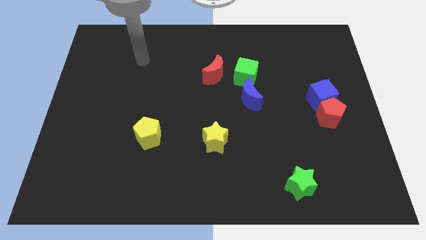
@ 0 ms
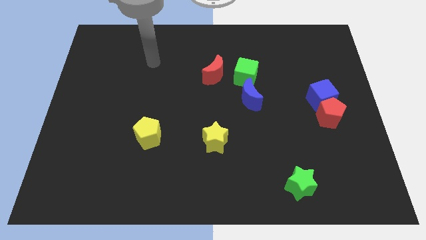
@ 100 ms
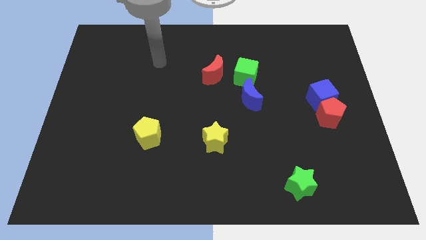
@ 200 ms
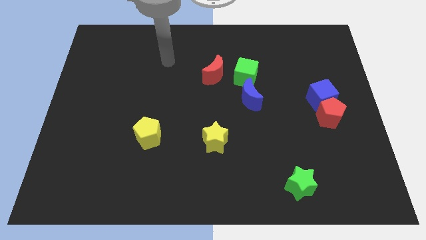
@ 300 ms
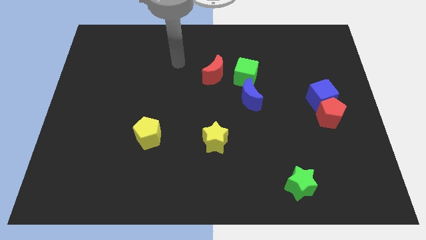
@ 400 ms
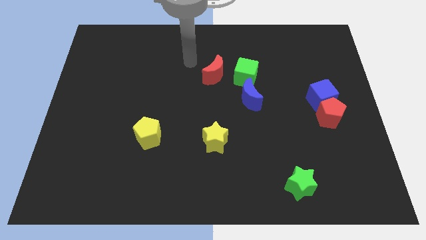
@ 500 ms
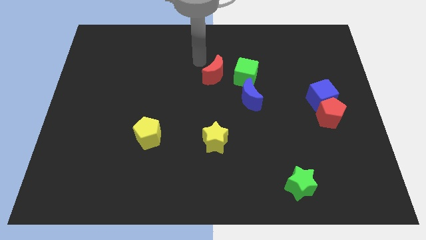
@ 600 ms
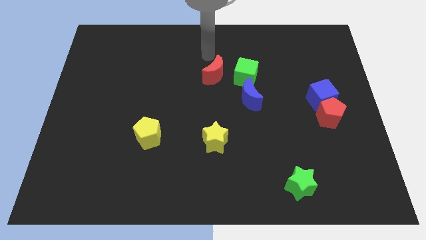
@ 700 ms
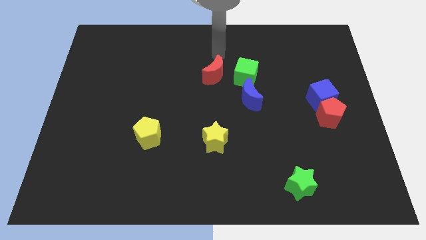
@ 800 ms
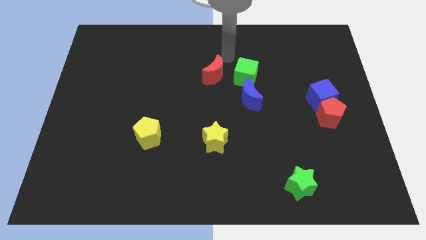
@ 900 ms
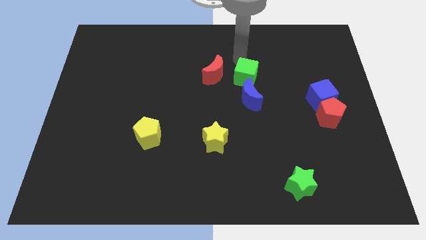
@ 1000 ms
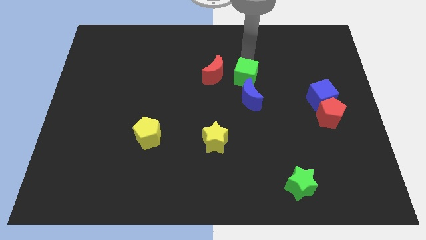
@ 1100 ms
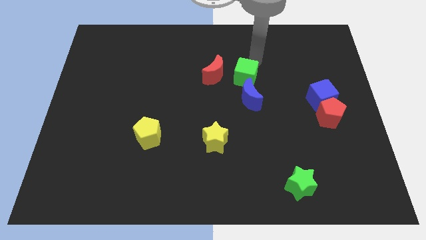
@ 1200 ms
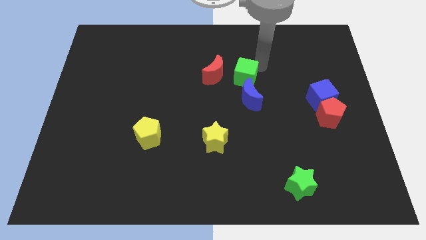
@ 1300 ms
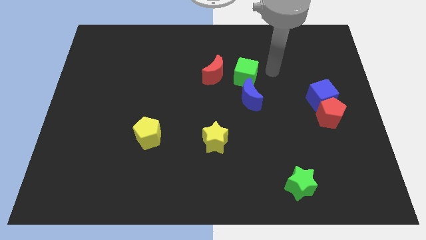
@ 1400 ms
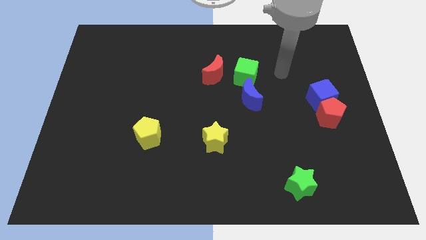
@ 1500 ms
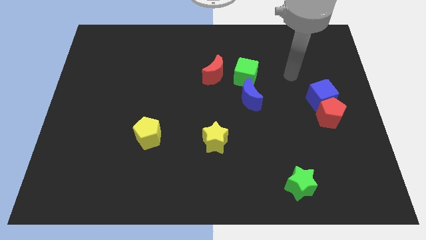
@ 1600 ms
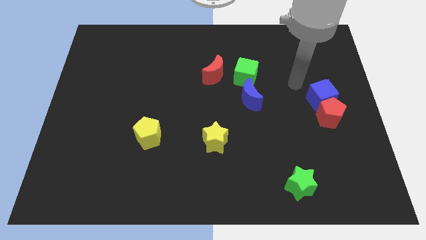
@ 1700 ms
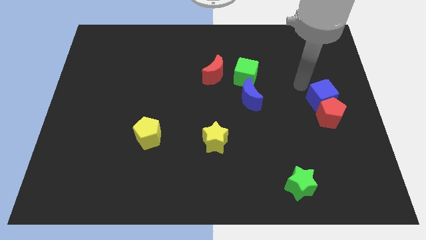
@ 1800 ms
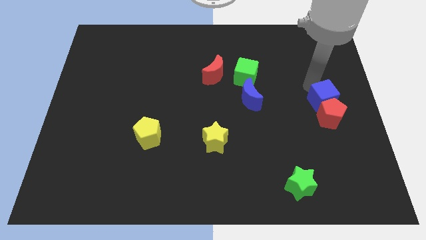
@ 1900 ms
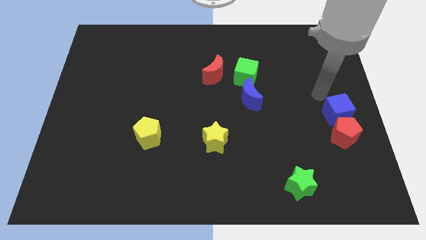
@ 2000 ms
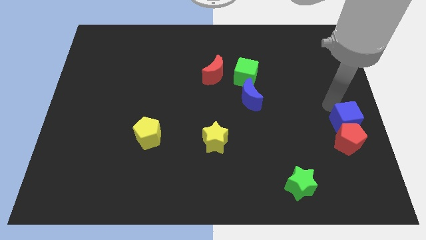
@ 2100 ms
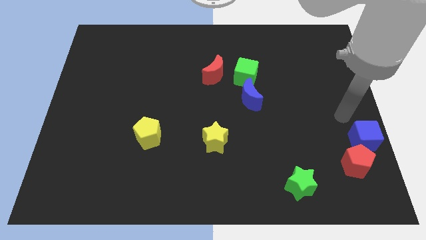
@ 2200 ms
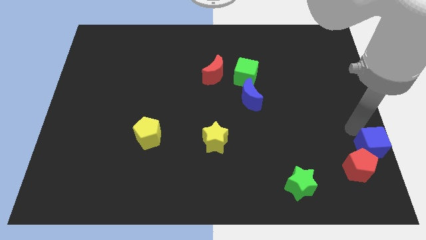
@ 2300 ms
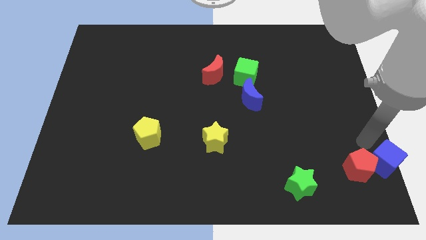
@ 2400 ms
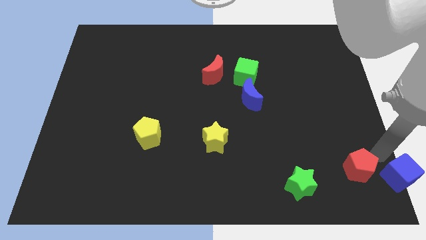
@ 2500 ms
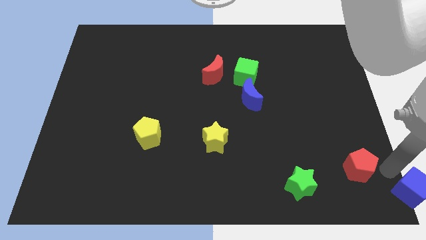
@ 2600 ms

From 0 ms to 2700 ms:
pull the red pentagon apart from the blue cube

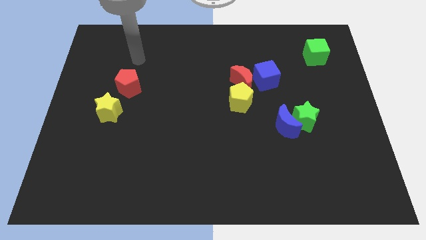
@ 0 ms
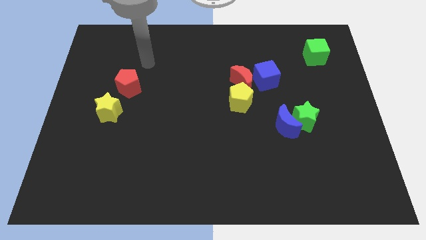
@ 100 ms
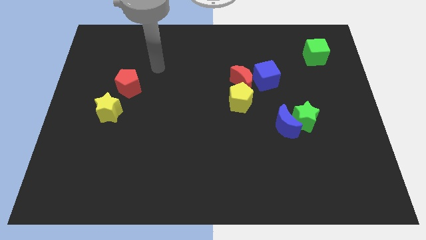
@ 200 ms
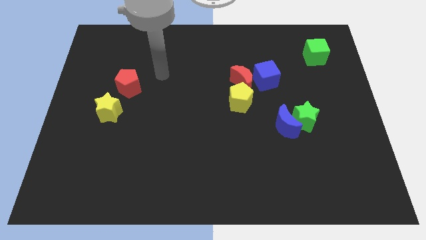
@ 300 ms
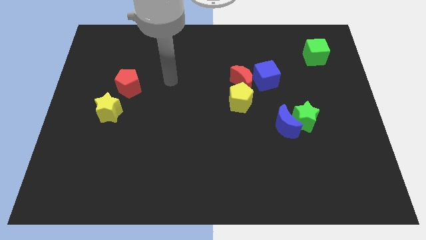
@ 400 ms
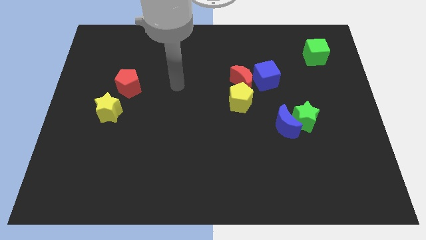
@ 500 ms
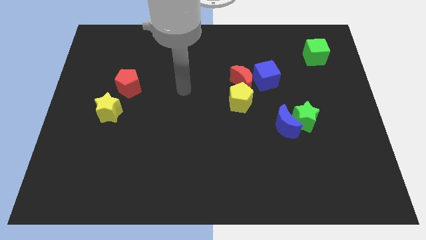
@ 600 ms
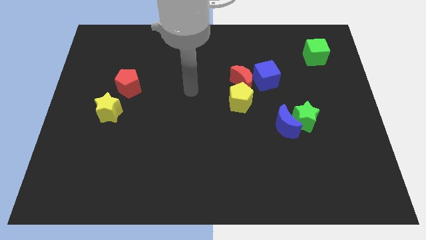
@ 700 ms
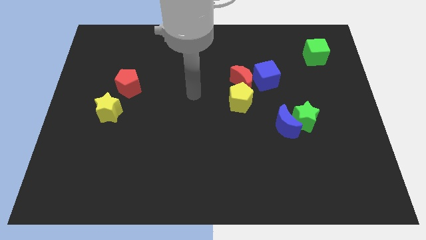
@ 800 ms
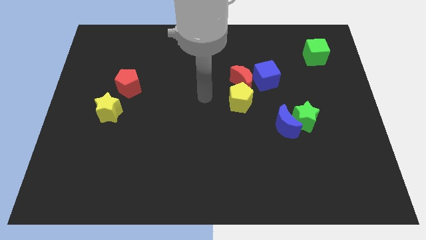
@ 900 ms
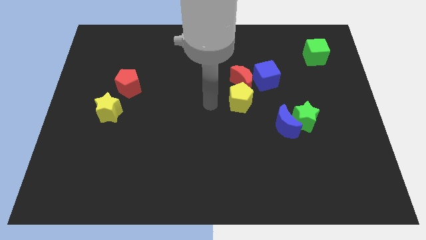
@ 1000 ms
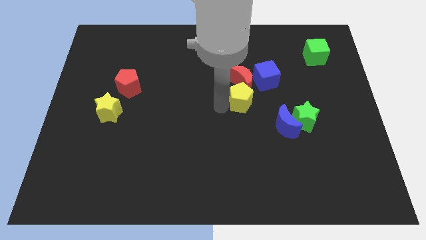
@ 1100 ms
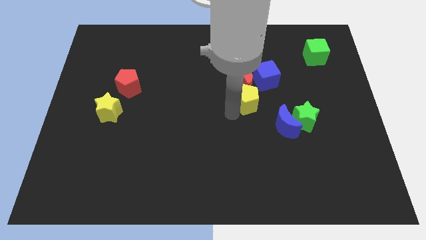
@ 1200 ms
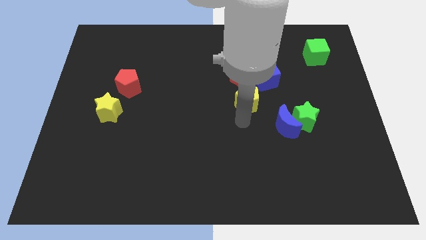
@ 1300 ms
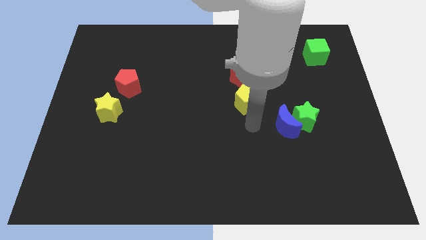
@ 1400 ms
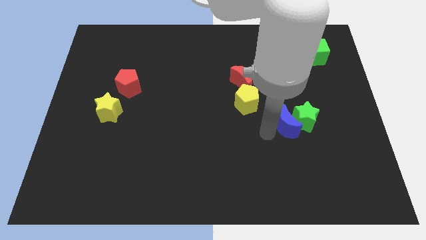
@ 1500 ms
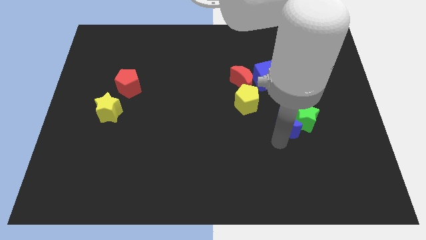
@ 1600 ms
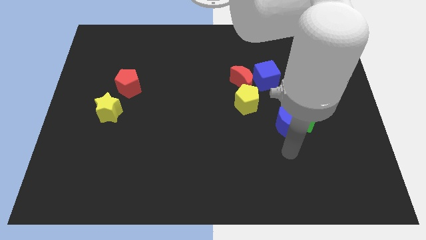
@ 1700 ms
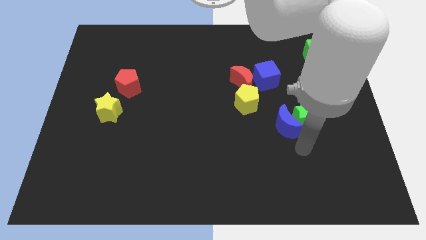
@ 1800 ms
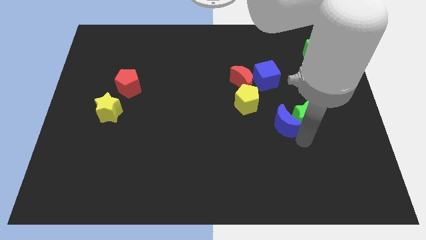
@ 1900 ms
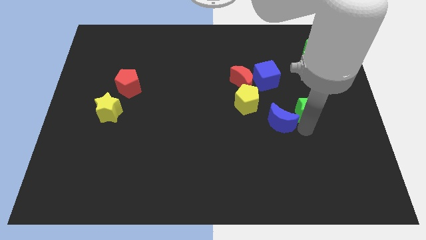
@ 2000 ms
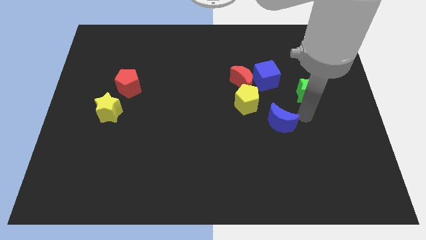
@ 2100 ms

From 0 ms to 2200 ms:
separate the blue moon from the green star

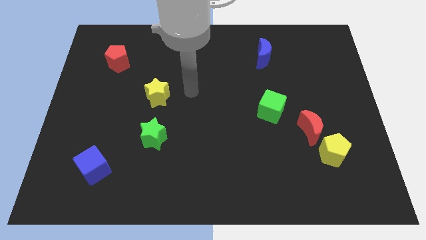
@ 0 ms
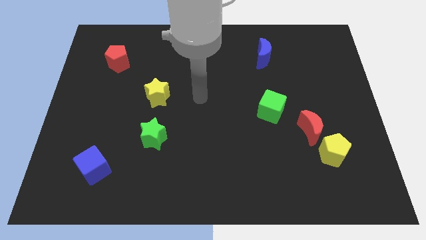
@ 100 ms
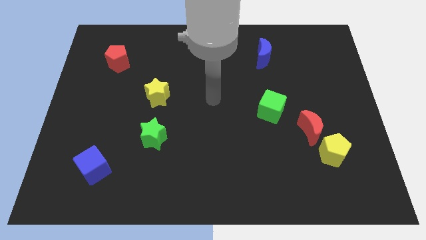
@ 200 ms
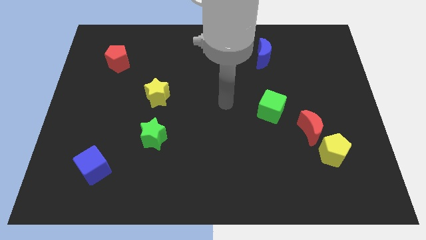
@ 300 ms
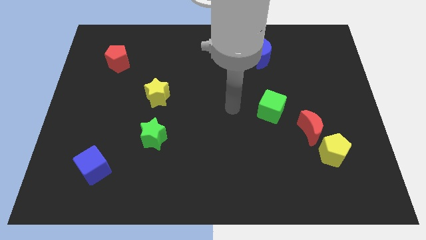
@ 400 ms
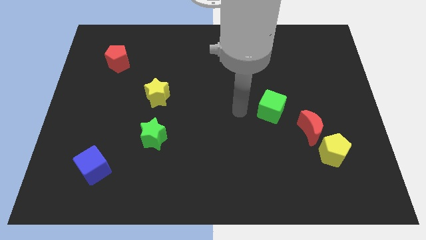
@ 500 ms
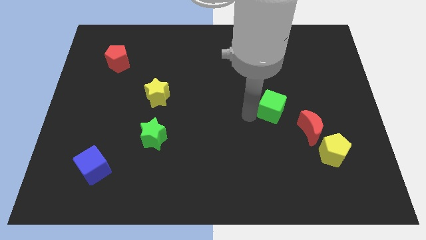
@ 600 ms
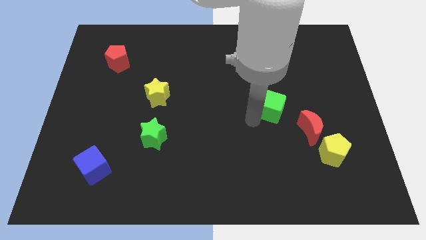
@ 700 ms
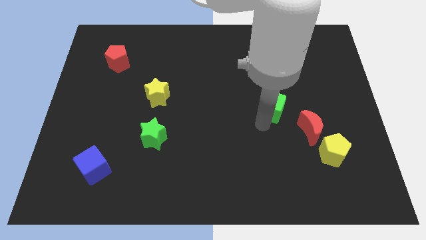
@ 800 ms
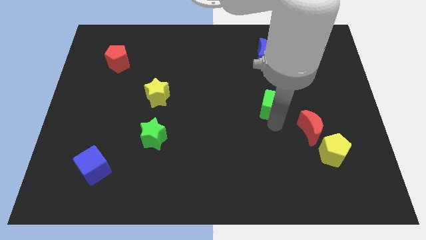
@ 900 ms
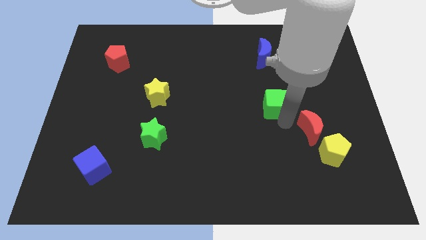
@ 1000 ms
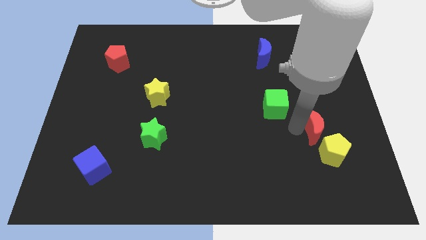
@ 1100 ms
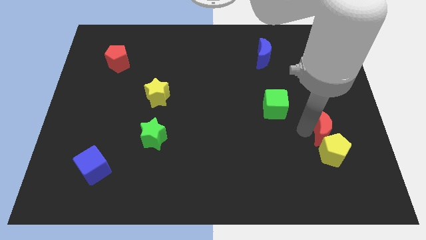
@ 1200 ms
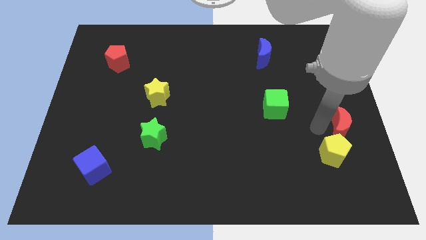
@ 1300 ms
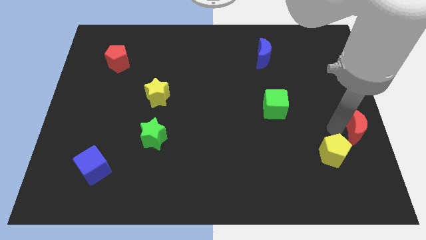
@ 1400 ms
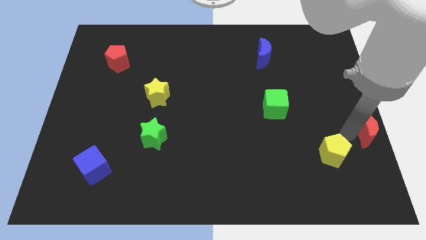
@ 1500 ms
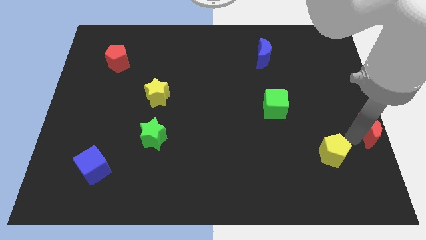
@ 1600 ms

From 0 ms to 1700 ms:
move the yellow pentagon away from the red moon

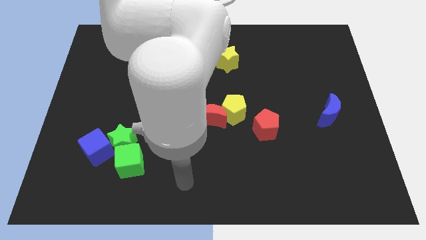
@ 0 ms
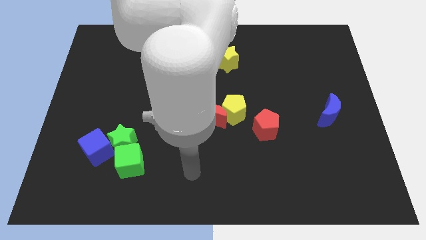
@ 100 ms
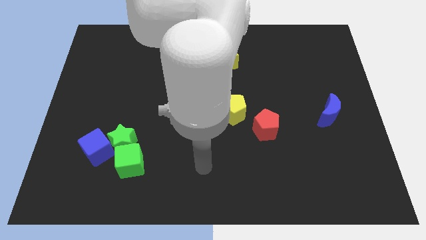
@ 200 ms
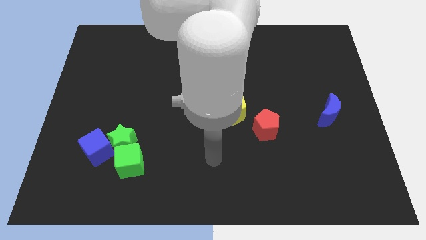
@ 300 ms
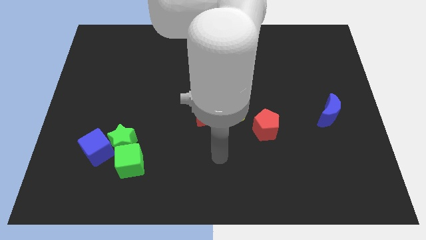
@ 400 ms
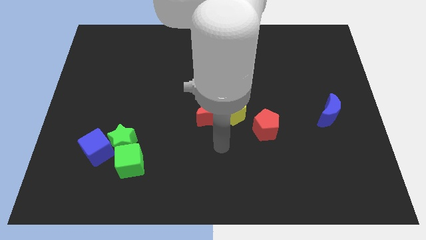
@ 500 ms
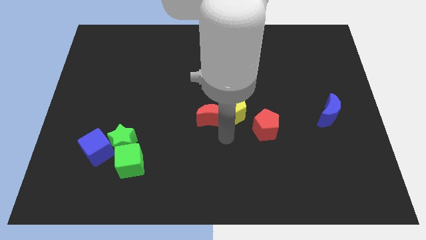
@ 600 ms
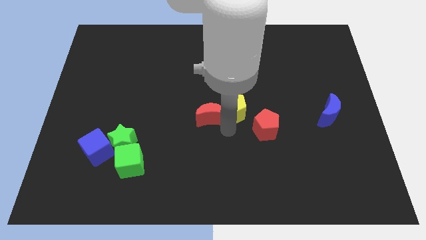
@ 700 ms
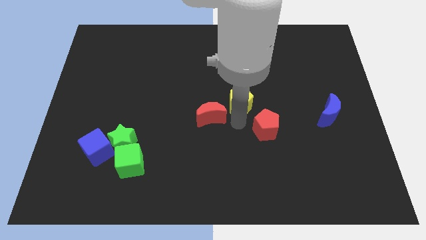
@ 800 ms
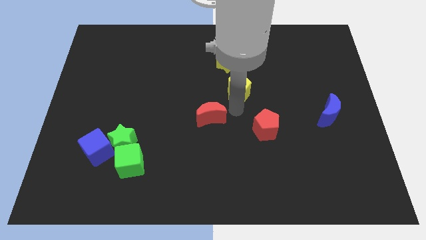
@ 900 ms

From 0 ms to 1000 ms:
move the red moon away from the yellow pentagon

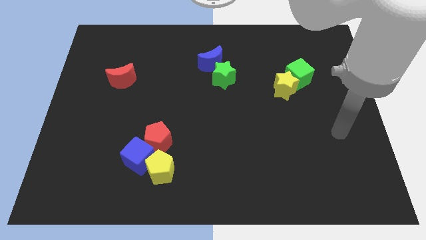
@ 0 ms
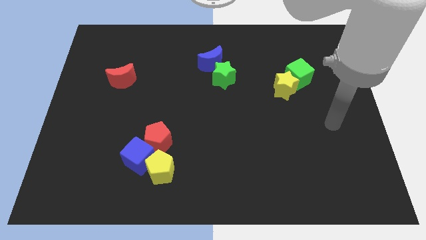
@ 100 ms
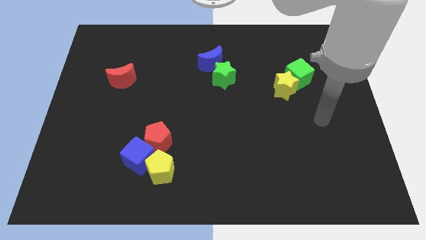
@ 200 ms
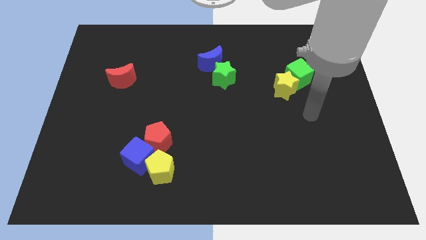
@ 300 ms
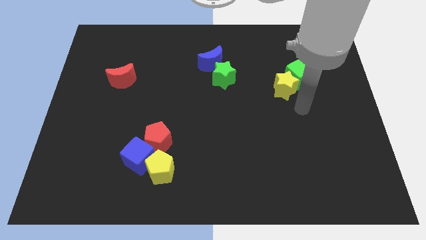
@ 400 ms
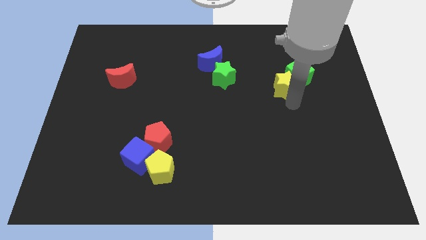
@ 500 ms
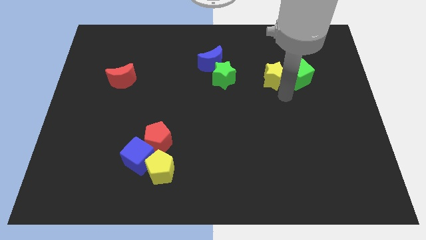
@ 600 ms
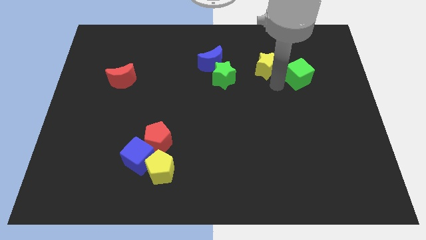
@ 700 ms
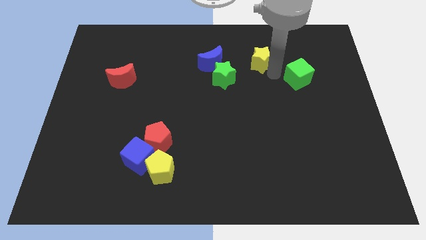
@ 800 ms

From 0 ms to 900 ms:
move the green cube away from the yellow star

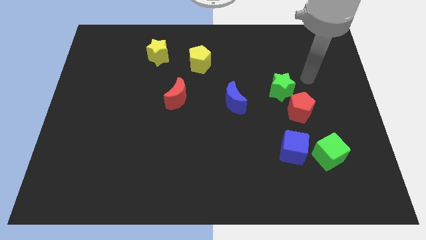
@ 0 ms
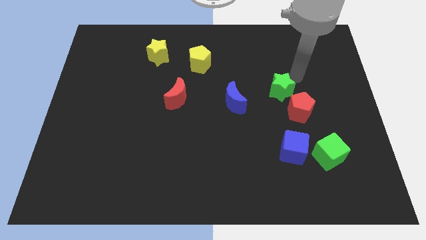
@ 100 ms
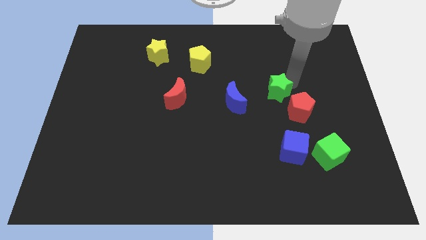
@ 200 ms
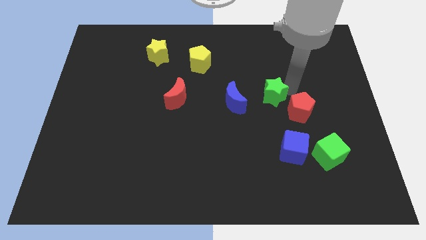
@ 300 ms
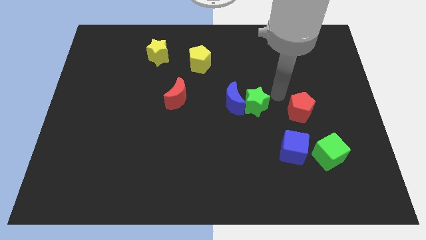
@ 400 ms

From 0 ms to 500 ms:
move the red pentagon away from the green star

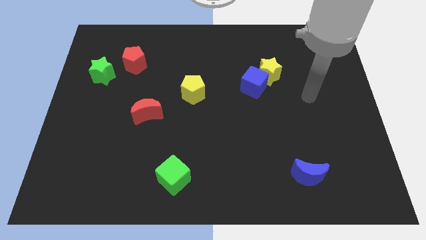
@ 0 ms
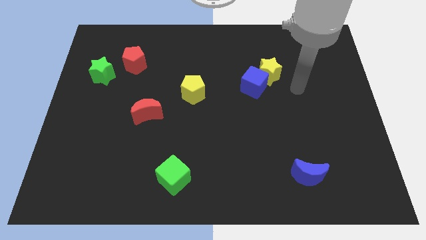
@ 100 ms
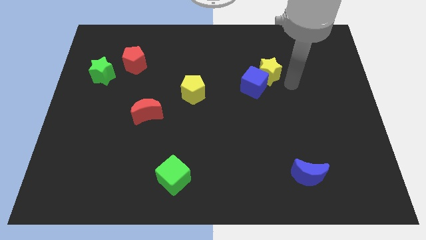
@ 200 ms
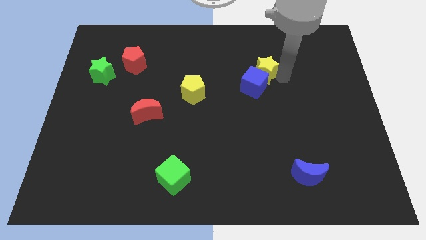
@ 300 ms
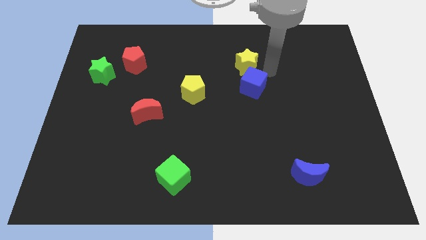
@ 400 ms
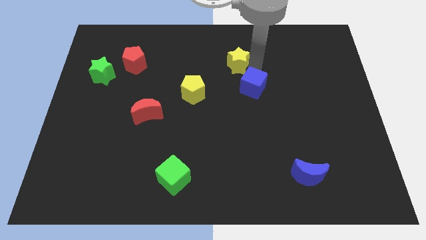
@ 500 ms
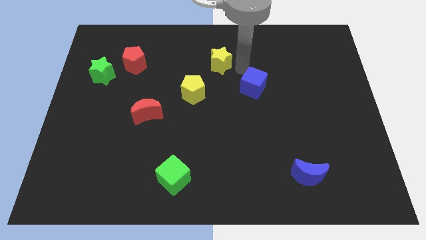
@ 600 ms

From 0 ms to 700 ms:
pull the blue cube apart from the yellow star
